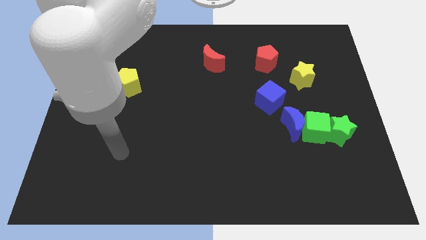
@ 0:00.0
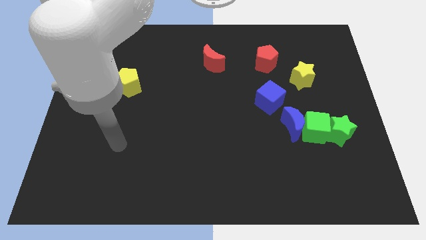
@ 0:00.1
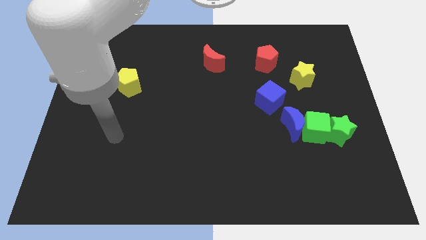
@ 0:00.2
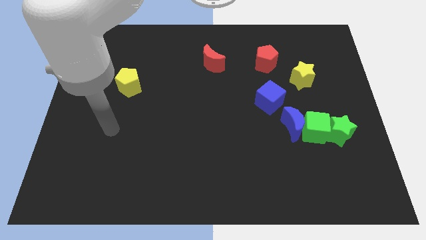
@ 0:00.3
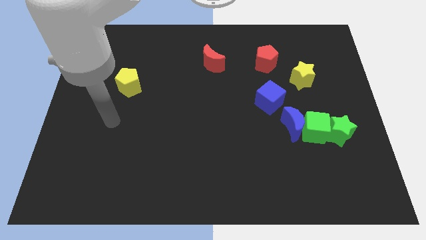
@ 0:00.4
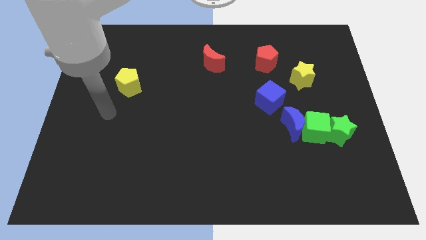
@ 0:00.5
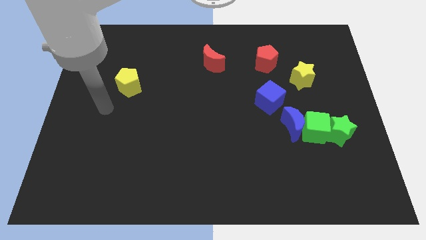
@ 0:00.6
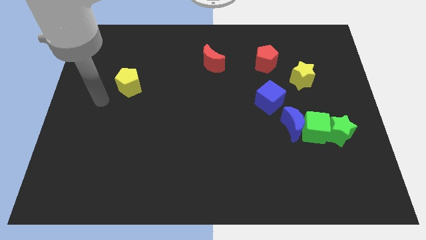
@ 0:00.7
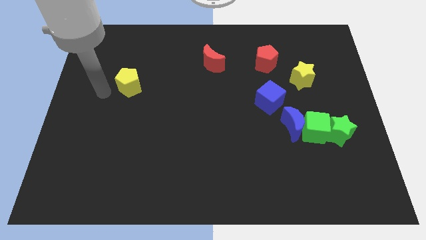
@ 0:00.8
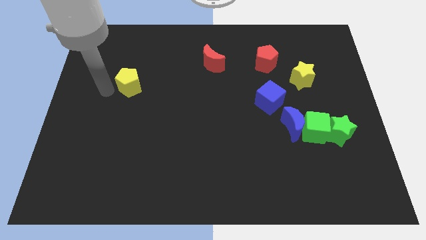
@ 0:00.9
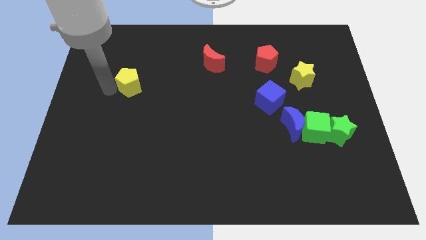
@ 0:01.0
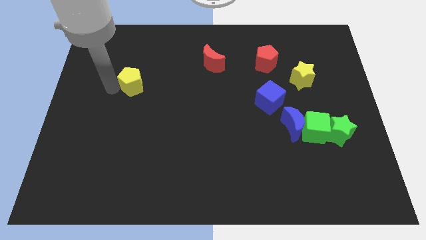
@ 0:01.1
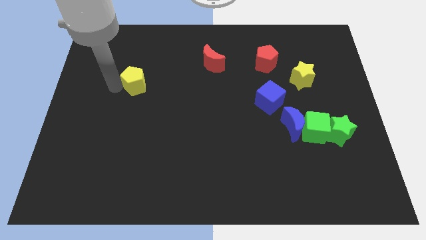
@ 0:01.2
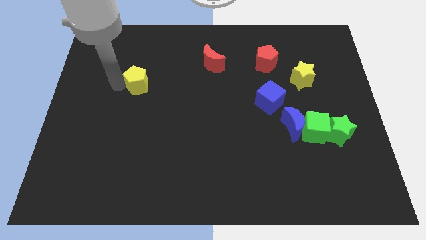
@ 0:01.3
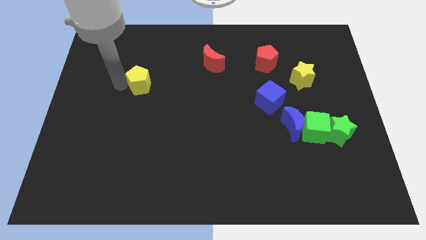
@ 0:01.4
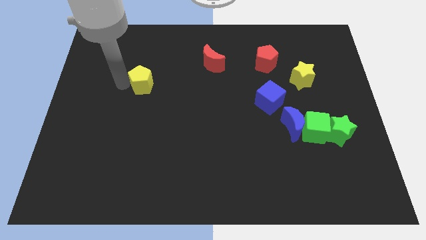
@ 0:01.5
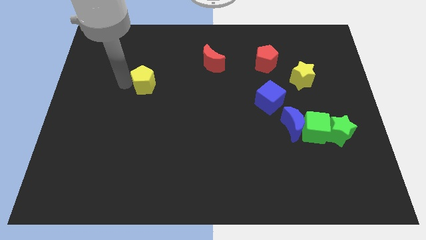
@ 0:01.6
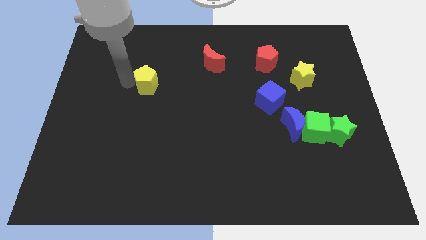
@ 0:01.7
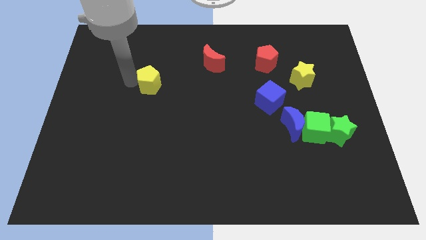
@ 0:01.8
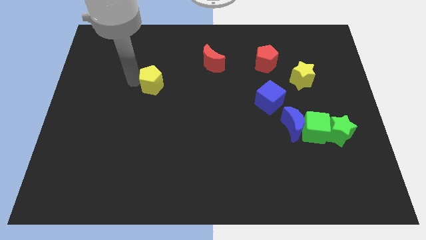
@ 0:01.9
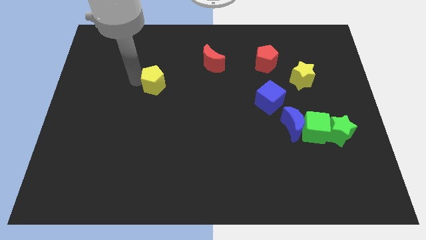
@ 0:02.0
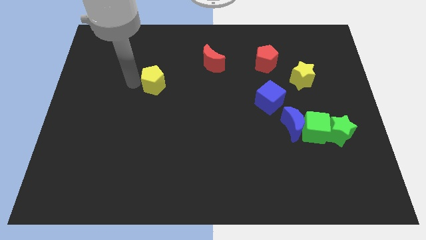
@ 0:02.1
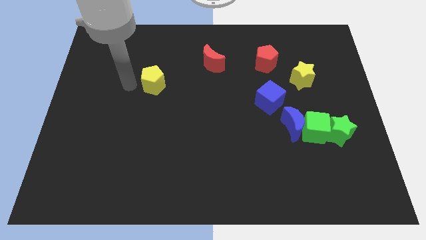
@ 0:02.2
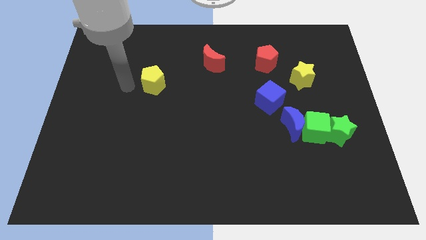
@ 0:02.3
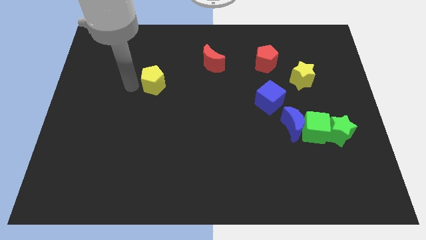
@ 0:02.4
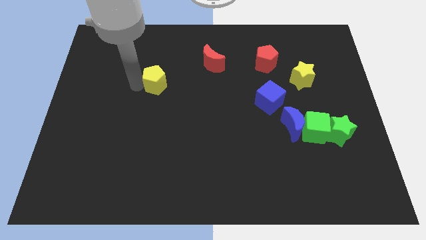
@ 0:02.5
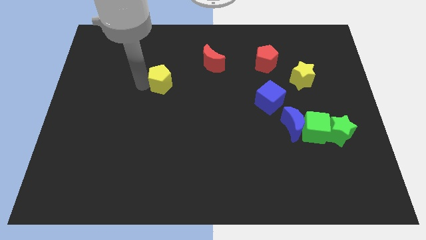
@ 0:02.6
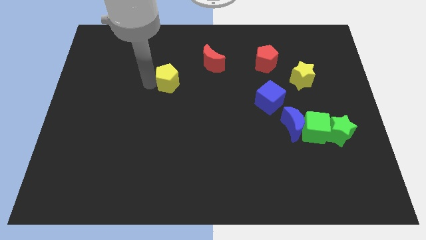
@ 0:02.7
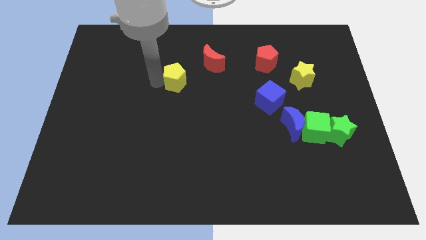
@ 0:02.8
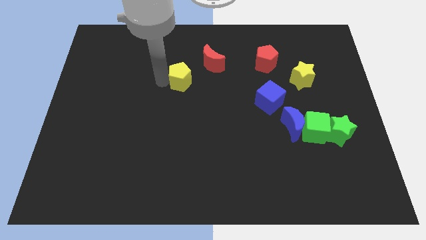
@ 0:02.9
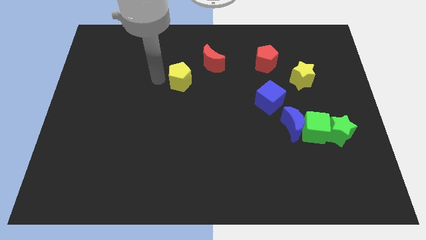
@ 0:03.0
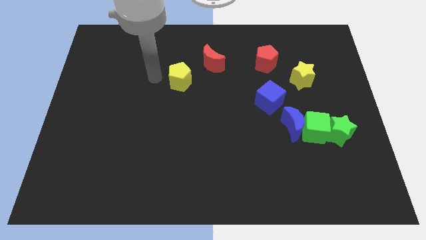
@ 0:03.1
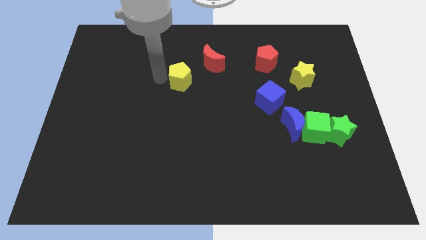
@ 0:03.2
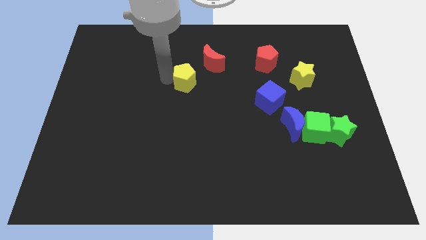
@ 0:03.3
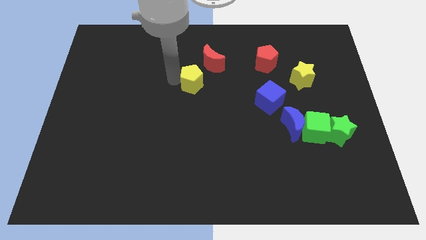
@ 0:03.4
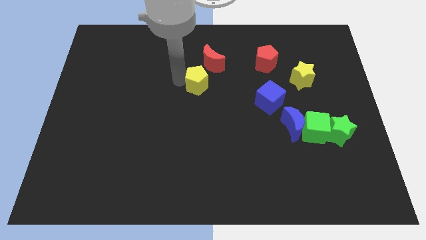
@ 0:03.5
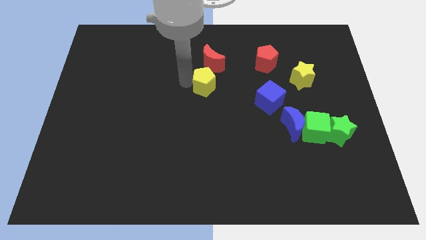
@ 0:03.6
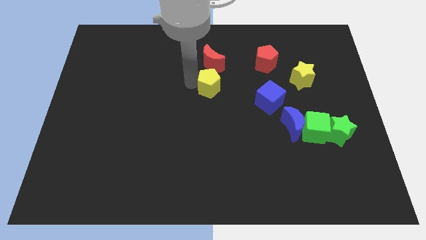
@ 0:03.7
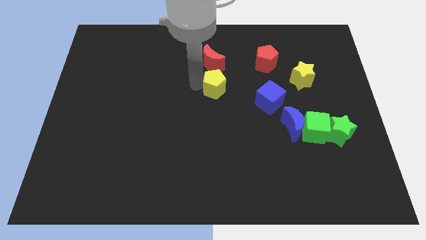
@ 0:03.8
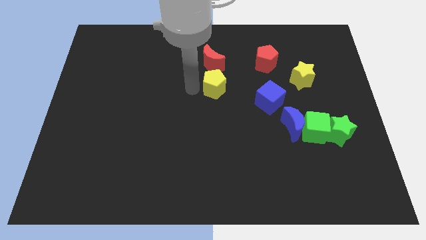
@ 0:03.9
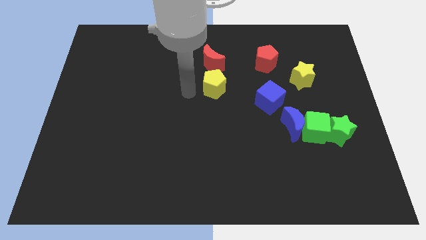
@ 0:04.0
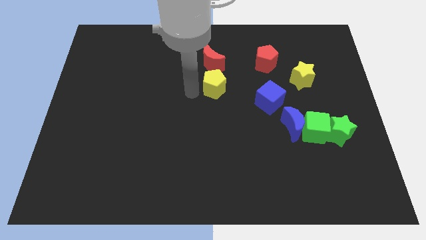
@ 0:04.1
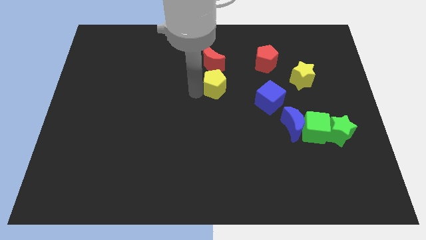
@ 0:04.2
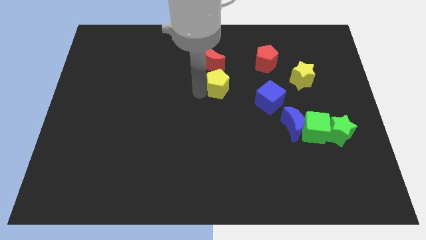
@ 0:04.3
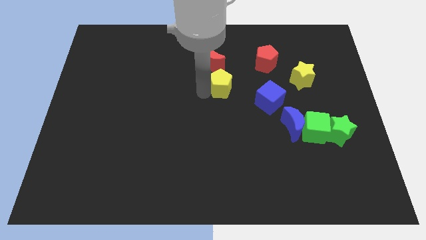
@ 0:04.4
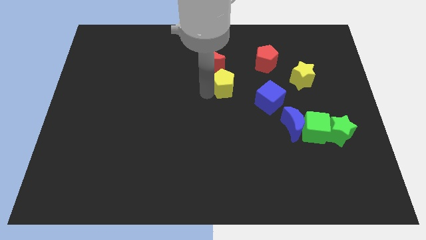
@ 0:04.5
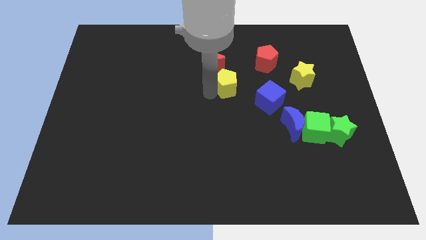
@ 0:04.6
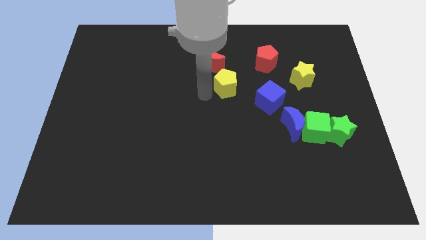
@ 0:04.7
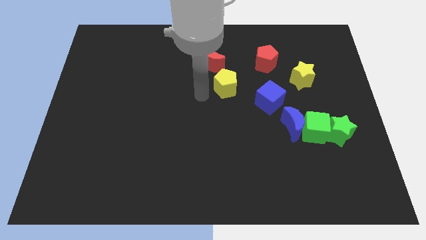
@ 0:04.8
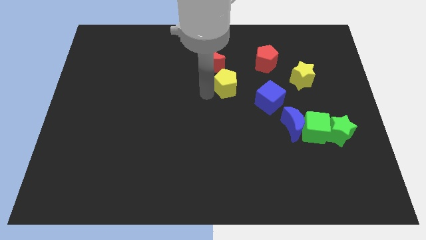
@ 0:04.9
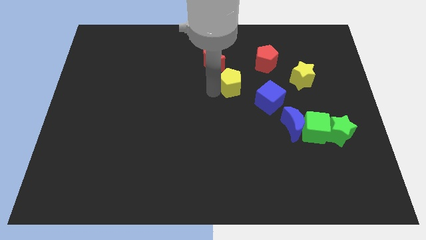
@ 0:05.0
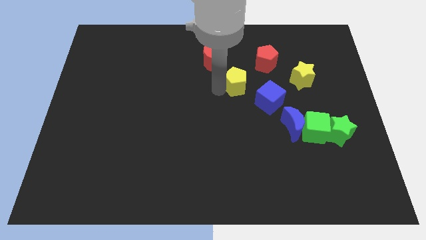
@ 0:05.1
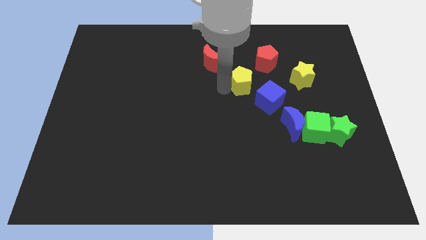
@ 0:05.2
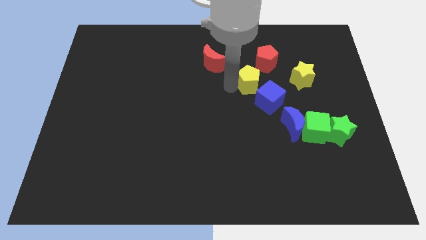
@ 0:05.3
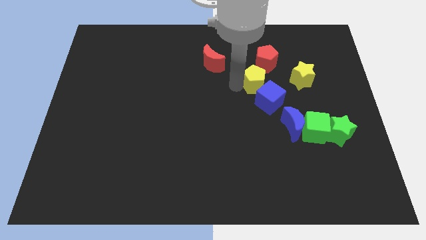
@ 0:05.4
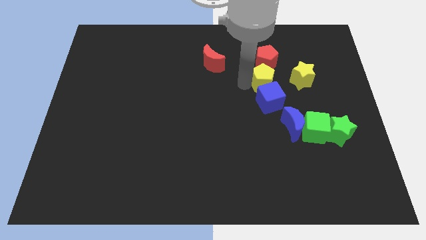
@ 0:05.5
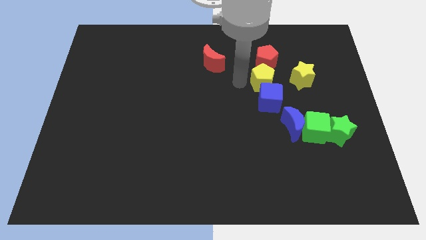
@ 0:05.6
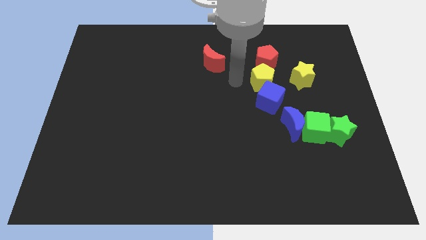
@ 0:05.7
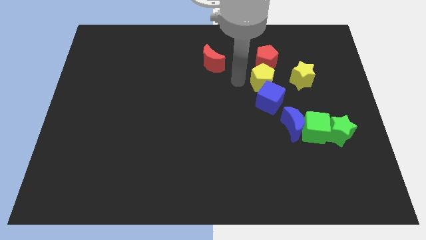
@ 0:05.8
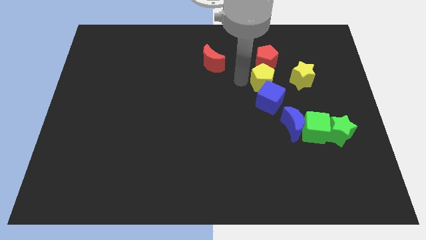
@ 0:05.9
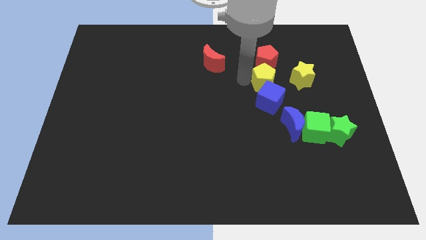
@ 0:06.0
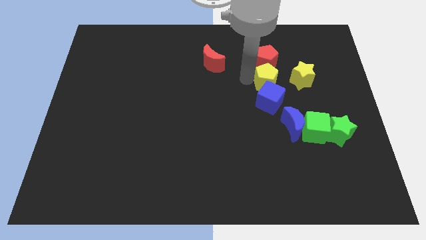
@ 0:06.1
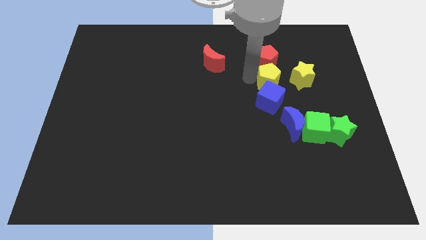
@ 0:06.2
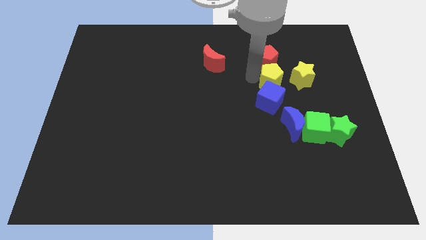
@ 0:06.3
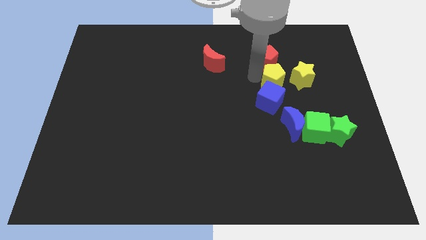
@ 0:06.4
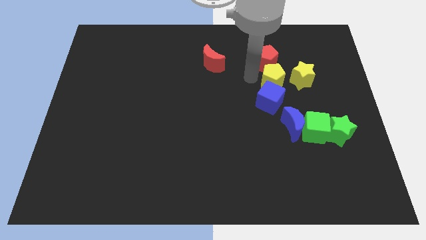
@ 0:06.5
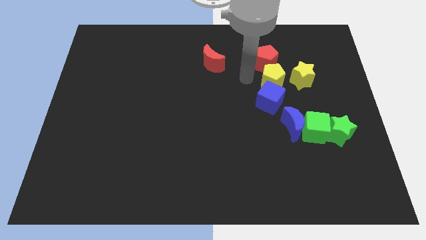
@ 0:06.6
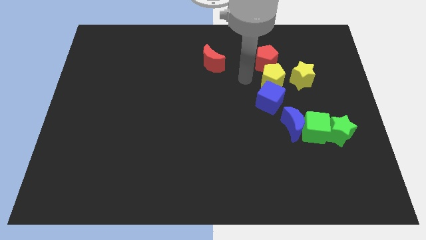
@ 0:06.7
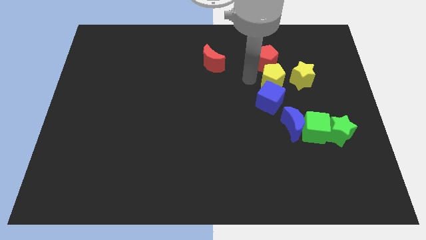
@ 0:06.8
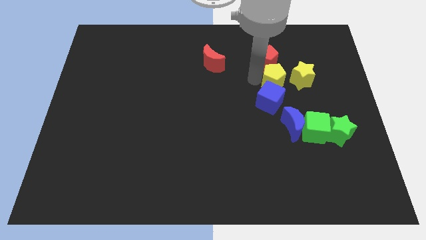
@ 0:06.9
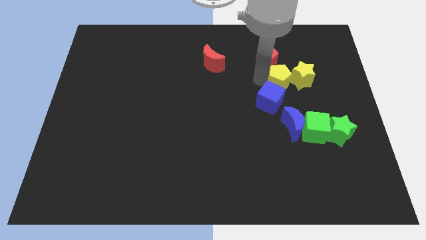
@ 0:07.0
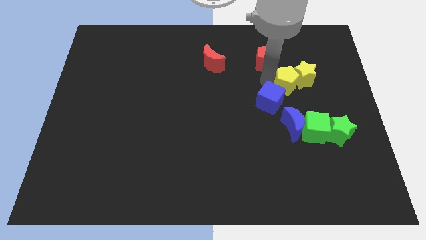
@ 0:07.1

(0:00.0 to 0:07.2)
push the yellow pentagon towards the yellow star

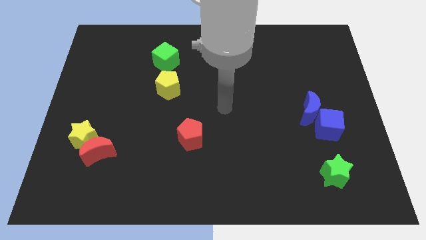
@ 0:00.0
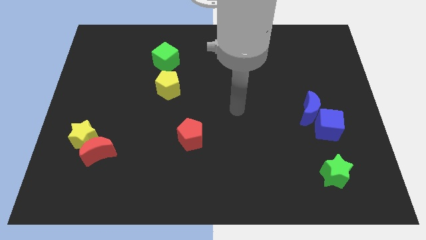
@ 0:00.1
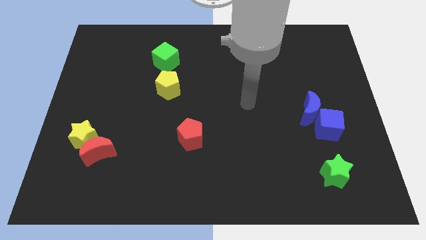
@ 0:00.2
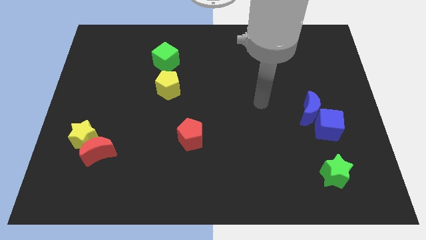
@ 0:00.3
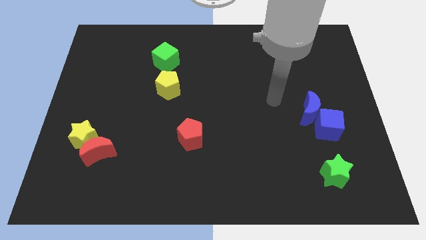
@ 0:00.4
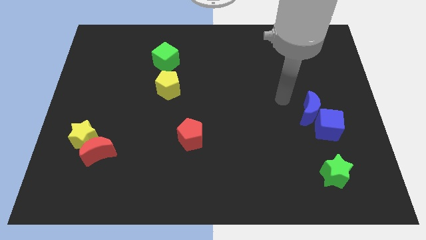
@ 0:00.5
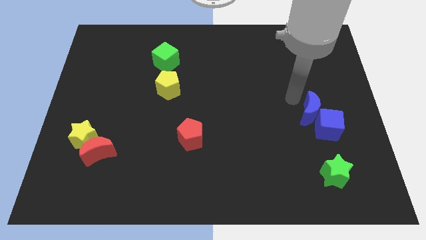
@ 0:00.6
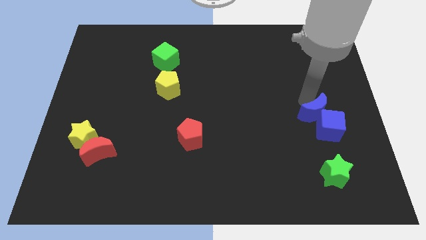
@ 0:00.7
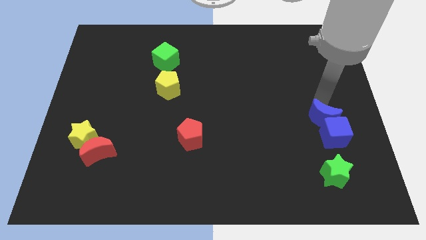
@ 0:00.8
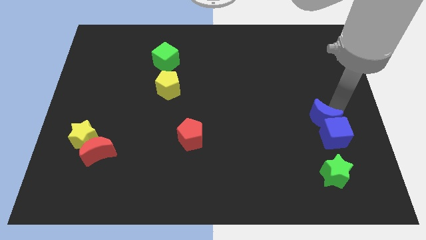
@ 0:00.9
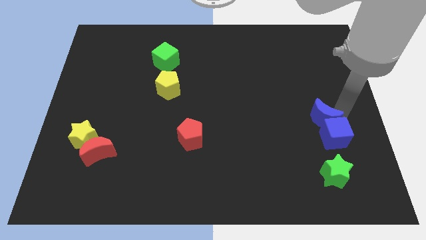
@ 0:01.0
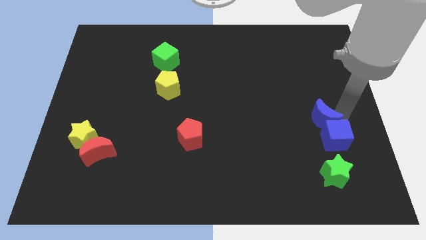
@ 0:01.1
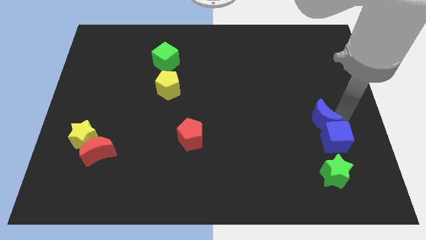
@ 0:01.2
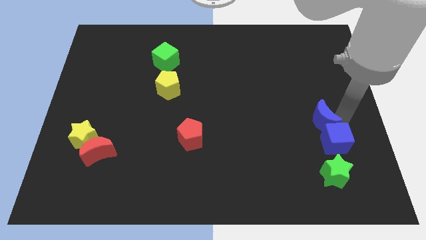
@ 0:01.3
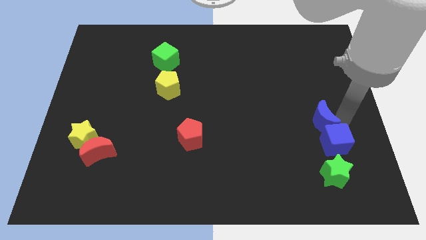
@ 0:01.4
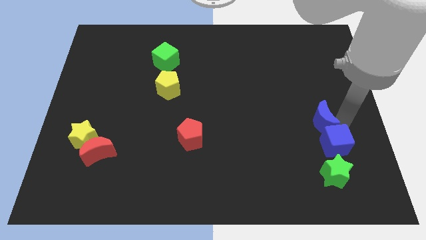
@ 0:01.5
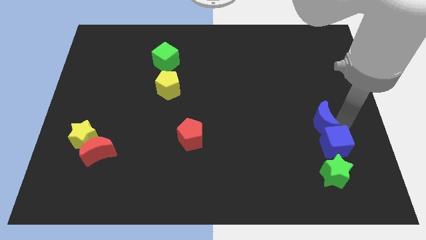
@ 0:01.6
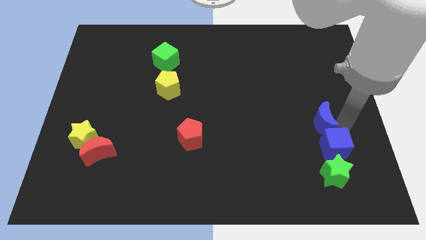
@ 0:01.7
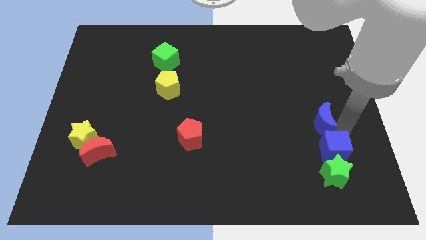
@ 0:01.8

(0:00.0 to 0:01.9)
put the blue cube next to the green star
